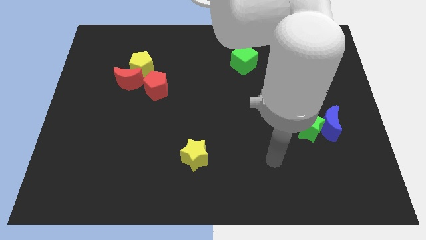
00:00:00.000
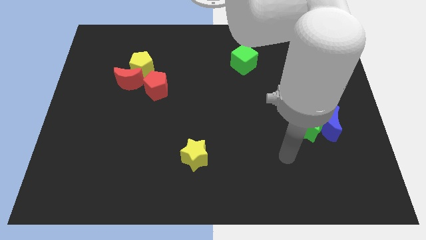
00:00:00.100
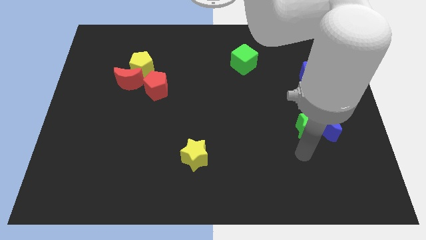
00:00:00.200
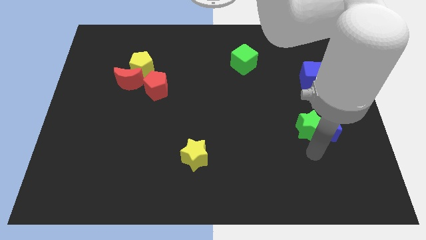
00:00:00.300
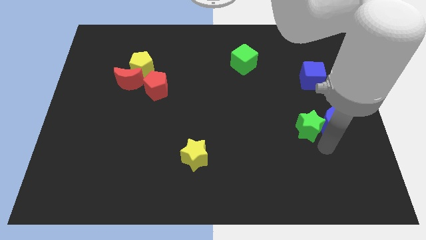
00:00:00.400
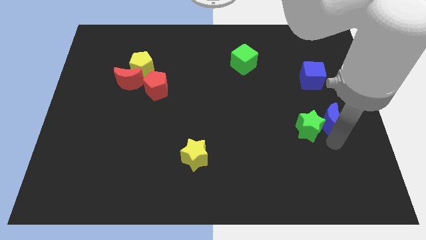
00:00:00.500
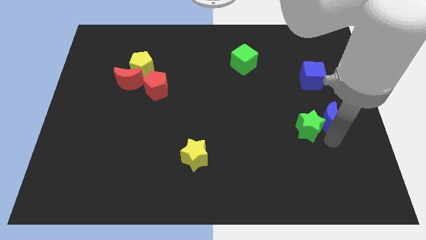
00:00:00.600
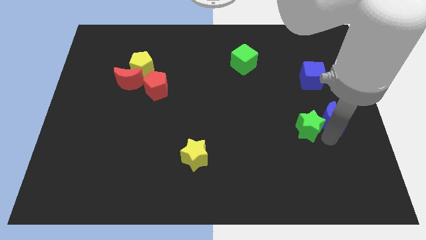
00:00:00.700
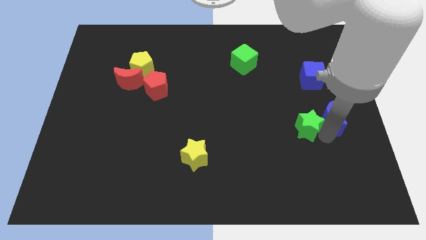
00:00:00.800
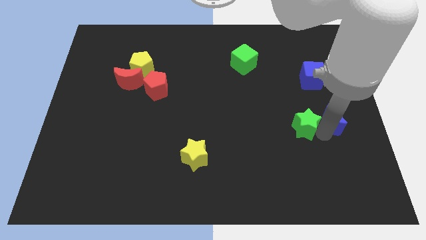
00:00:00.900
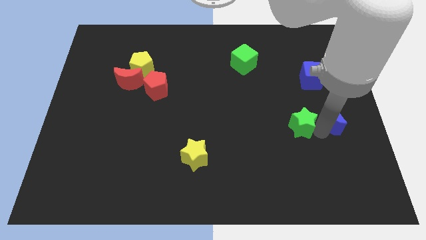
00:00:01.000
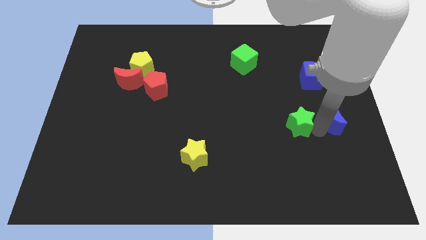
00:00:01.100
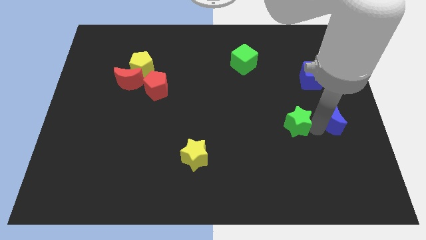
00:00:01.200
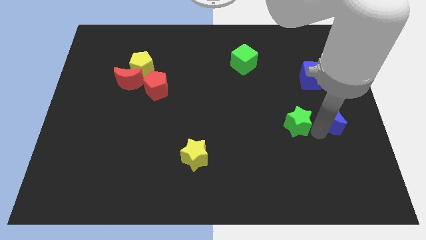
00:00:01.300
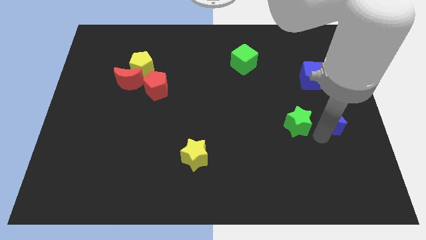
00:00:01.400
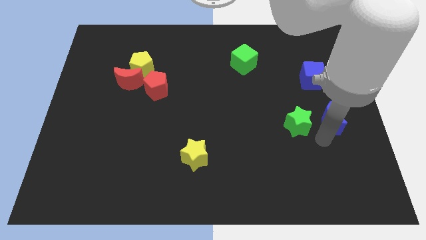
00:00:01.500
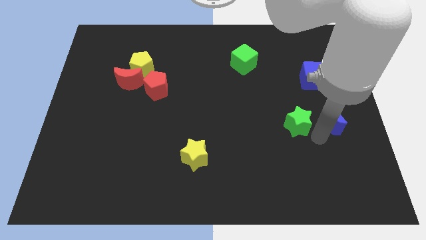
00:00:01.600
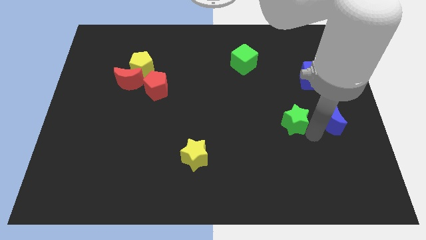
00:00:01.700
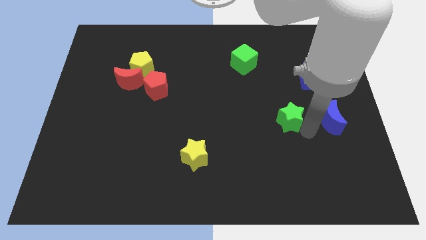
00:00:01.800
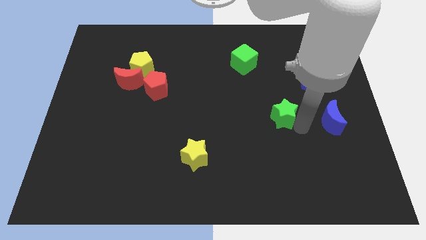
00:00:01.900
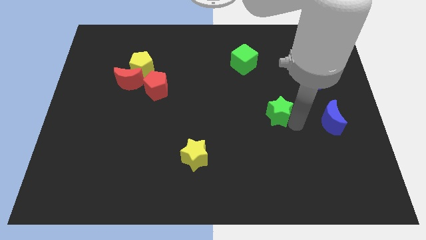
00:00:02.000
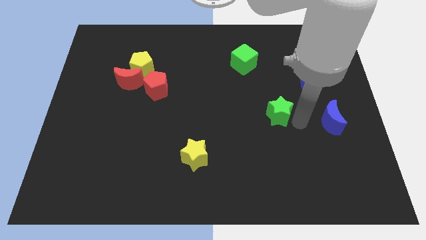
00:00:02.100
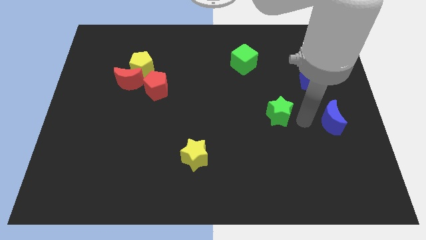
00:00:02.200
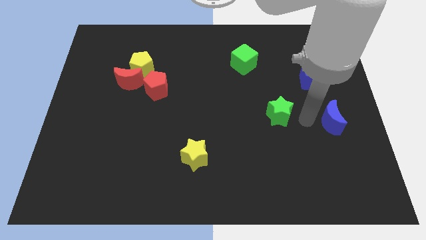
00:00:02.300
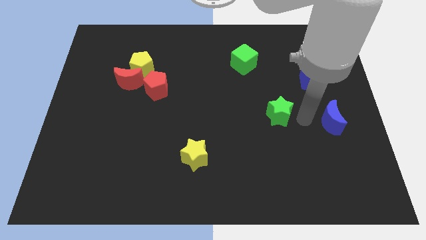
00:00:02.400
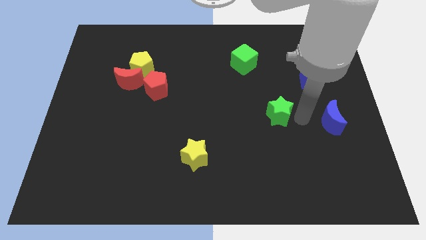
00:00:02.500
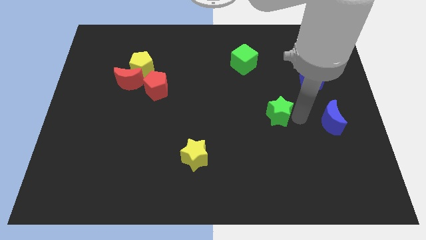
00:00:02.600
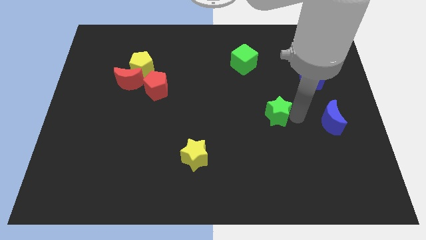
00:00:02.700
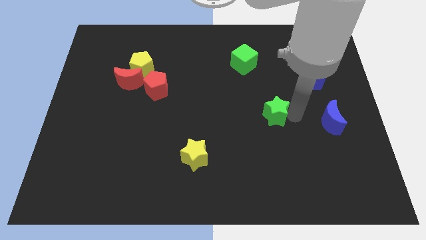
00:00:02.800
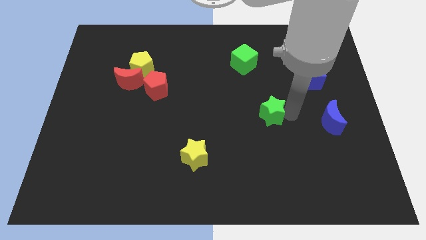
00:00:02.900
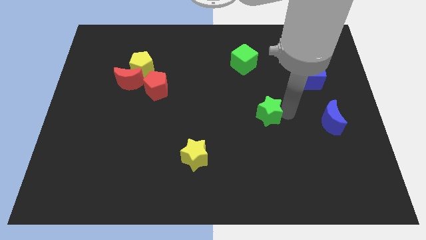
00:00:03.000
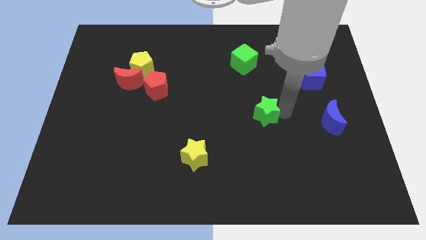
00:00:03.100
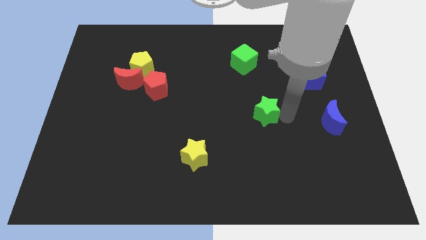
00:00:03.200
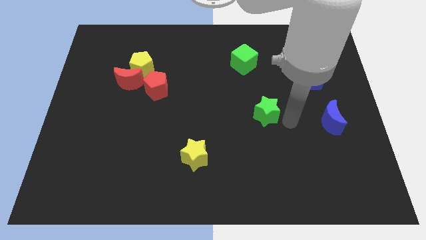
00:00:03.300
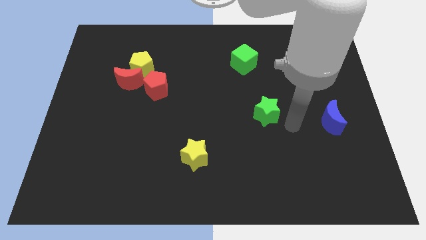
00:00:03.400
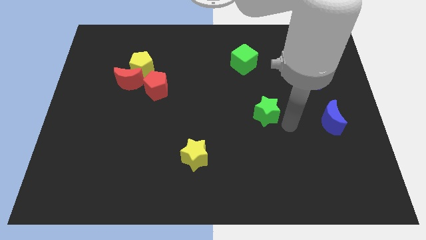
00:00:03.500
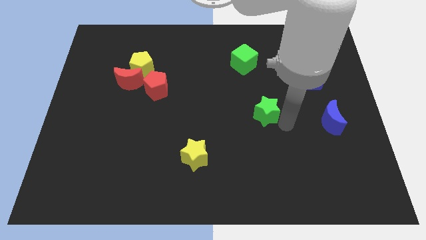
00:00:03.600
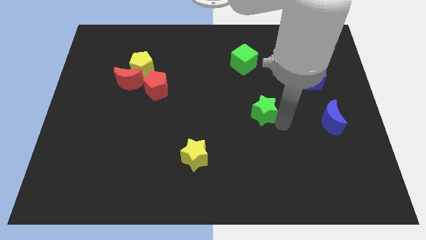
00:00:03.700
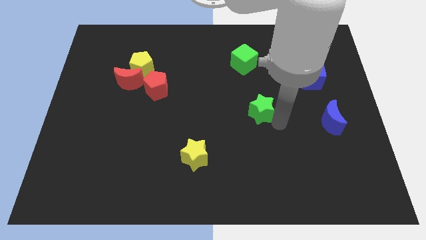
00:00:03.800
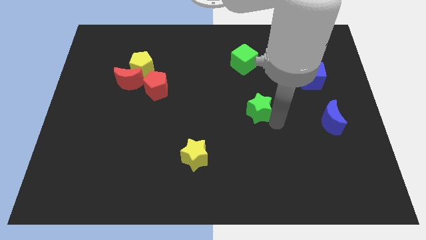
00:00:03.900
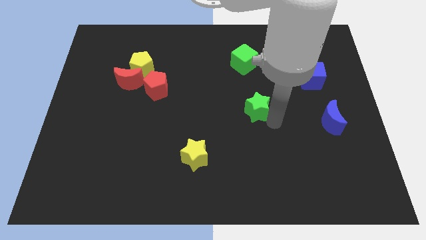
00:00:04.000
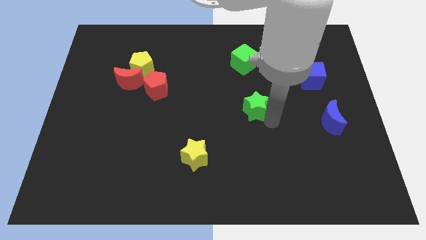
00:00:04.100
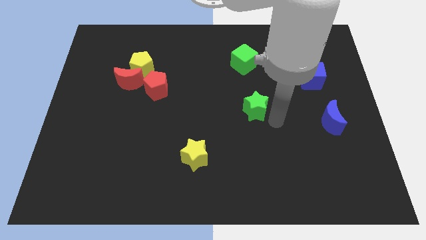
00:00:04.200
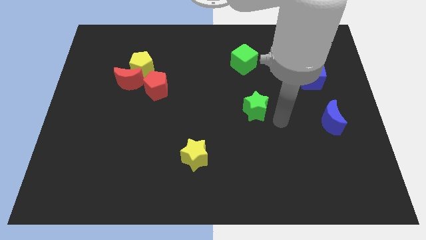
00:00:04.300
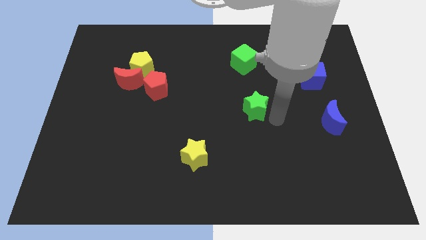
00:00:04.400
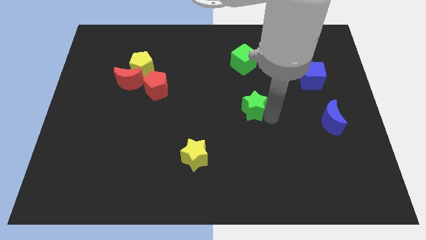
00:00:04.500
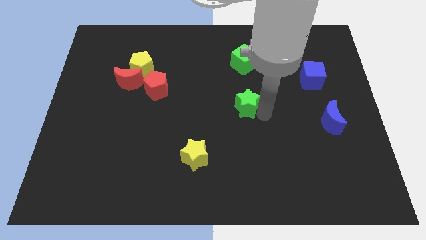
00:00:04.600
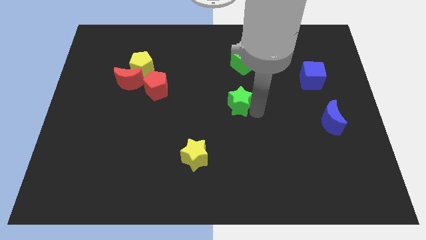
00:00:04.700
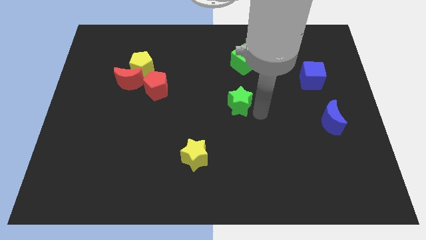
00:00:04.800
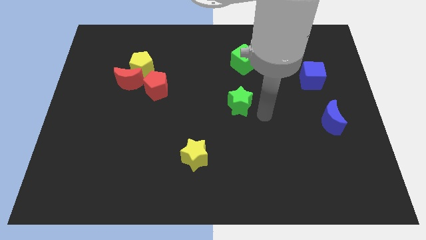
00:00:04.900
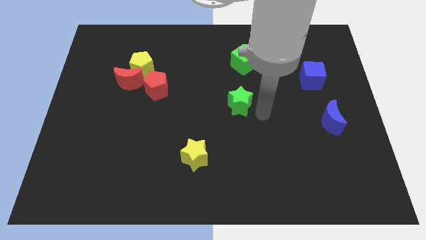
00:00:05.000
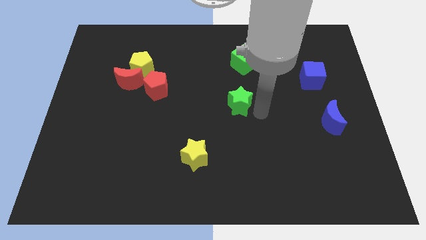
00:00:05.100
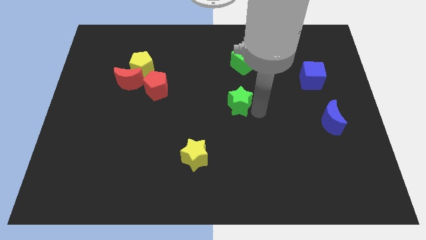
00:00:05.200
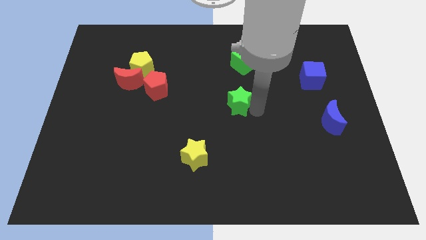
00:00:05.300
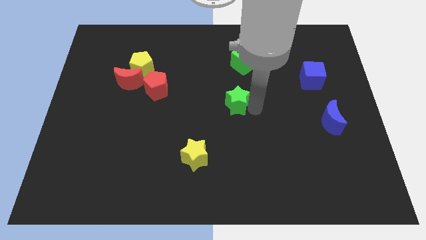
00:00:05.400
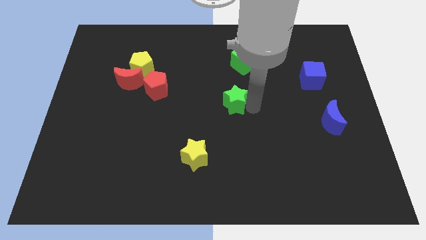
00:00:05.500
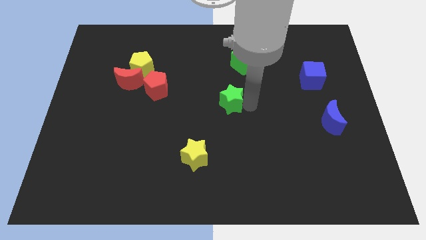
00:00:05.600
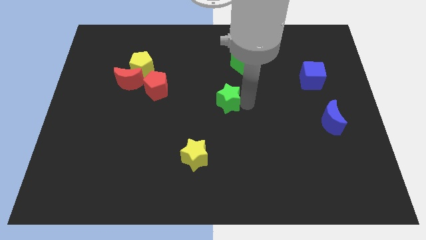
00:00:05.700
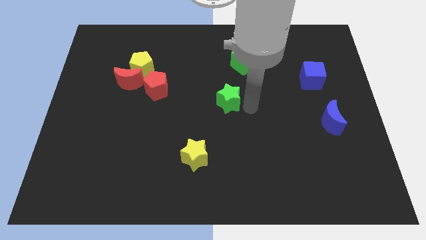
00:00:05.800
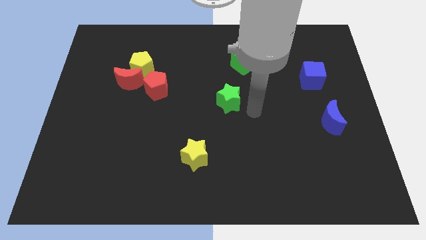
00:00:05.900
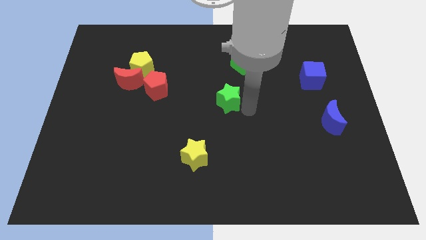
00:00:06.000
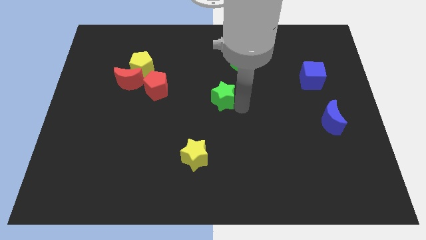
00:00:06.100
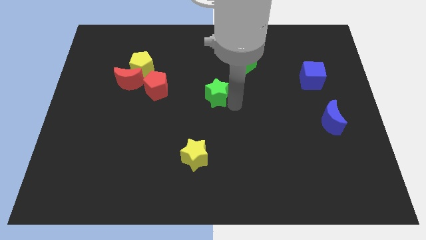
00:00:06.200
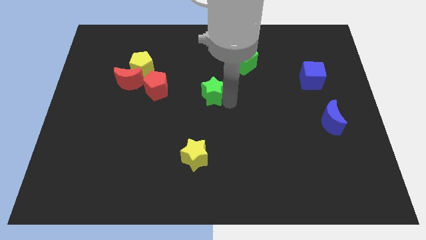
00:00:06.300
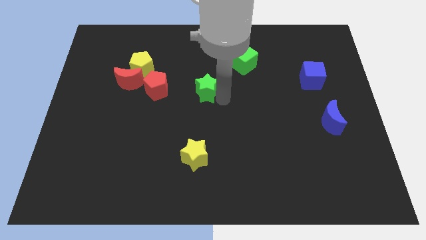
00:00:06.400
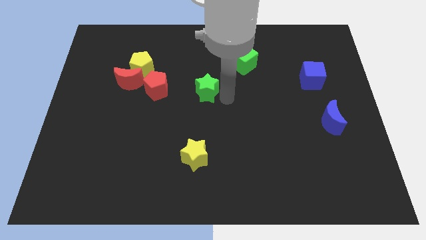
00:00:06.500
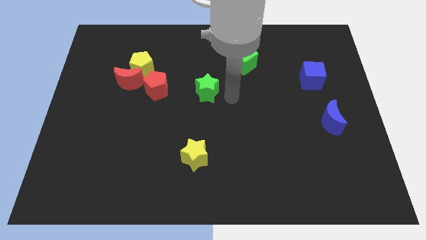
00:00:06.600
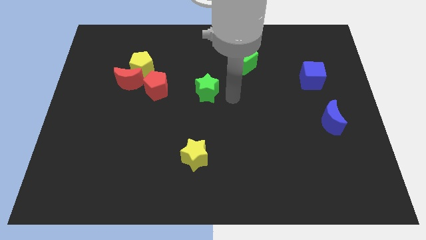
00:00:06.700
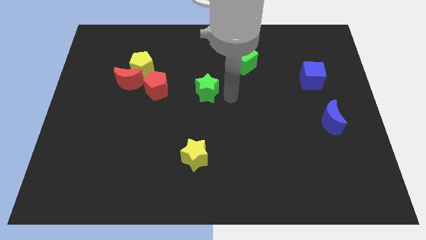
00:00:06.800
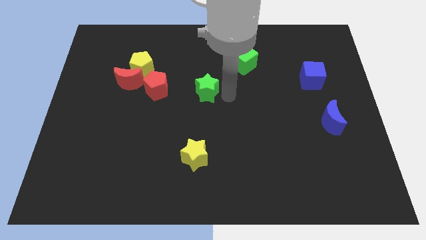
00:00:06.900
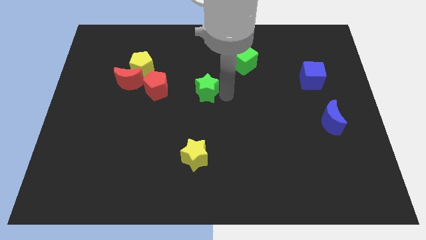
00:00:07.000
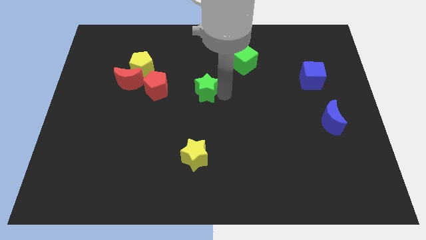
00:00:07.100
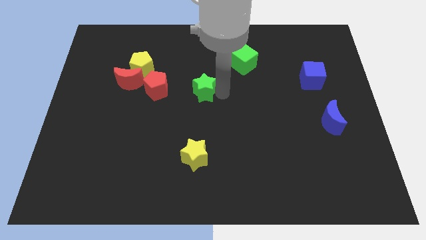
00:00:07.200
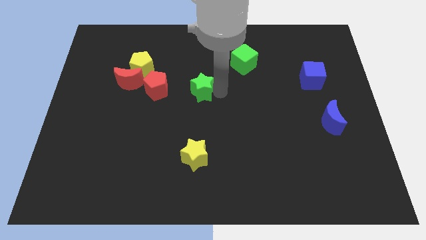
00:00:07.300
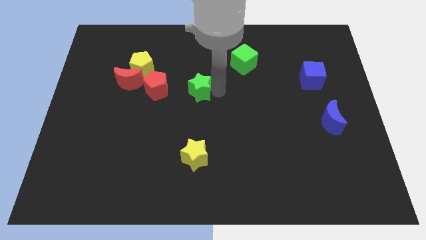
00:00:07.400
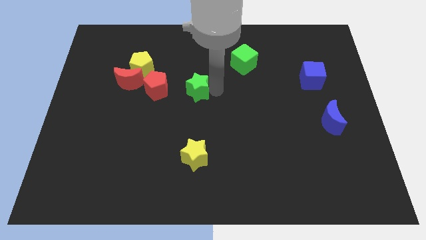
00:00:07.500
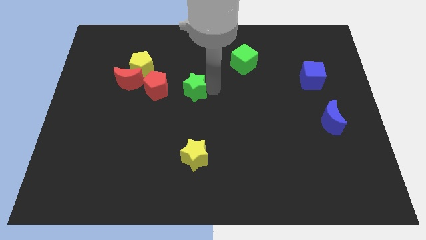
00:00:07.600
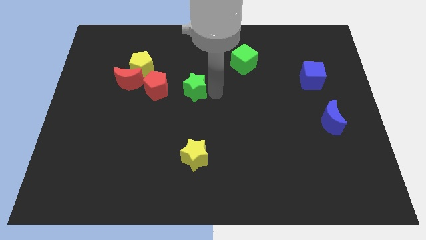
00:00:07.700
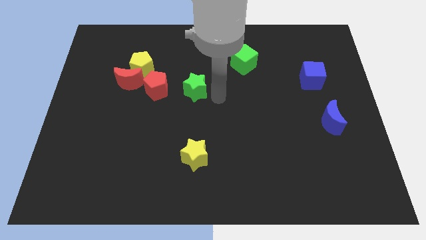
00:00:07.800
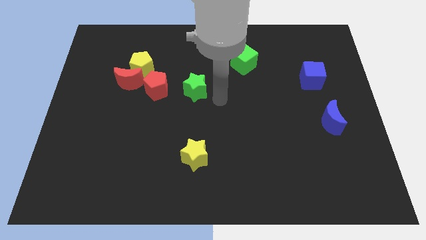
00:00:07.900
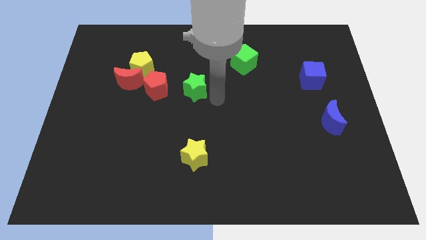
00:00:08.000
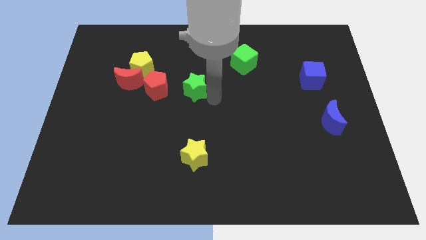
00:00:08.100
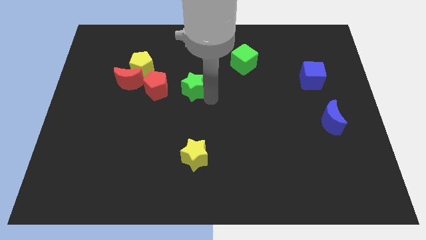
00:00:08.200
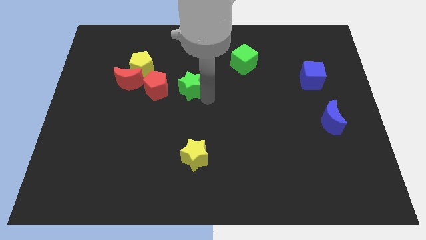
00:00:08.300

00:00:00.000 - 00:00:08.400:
push the green star right of the red moon
